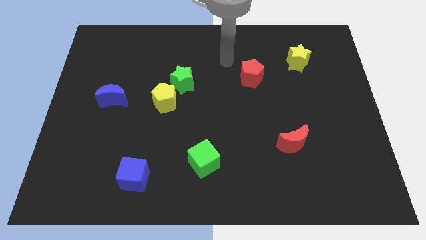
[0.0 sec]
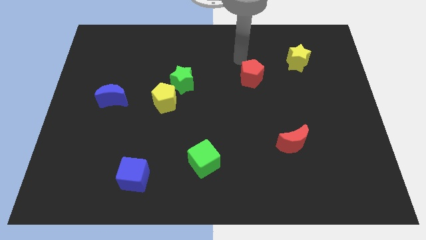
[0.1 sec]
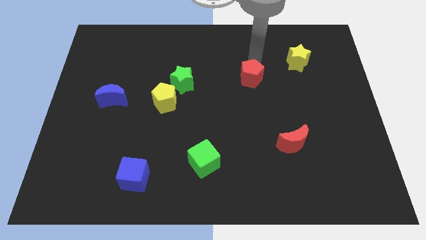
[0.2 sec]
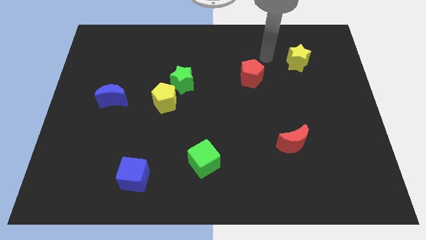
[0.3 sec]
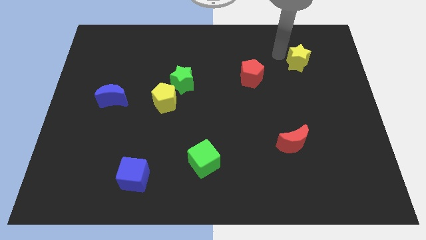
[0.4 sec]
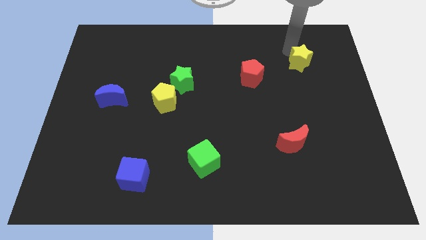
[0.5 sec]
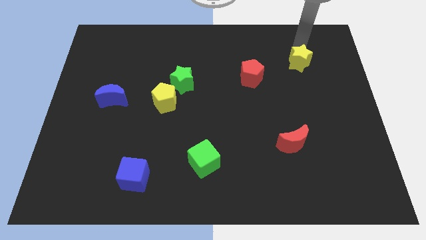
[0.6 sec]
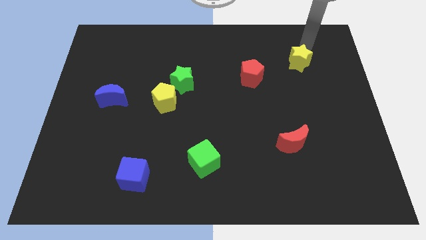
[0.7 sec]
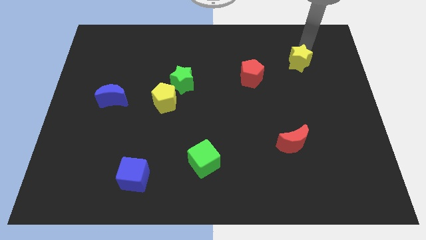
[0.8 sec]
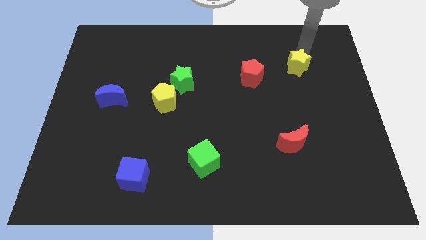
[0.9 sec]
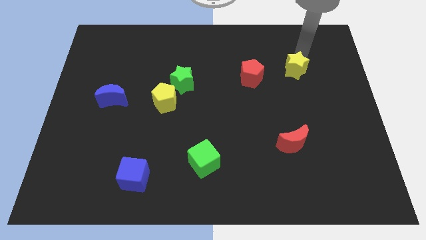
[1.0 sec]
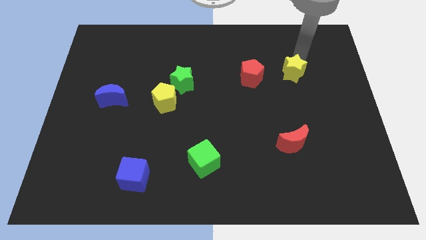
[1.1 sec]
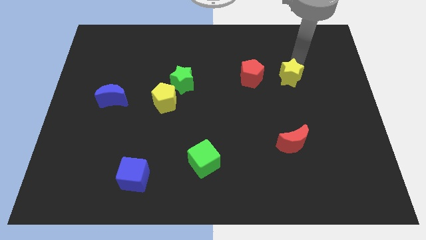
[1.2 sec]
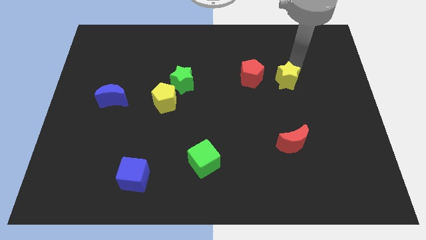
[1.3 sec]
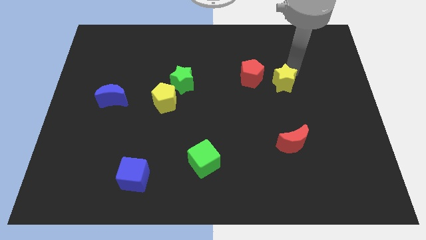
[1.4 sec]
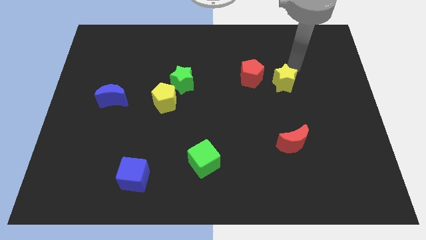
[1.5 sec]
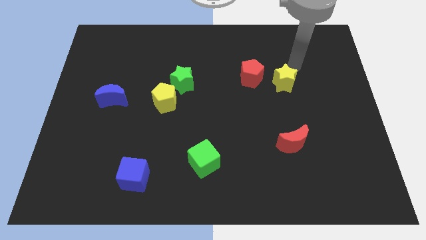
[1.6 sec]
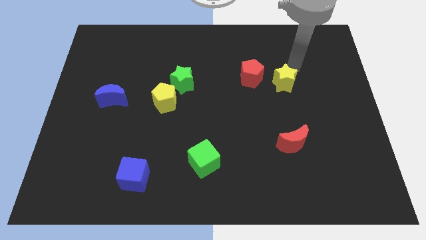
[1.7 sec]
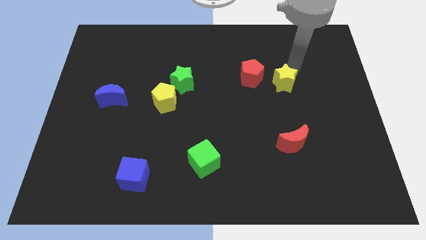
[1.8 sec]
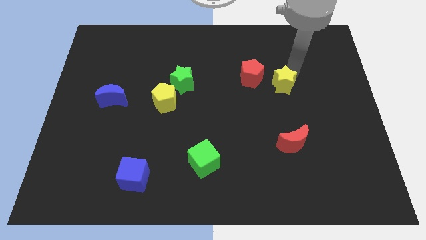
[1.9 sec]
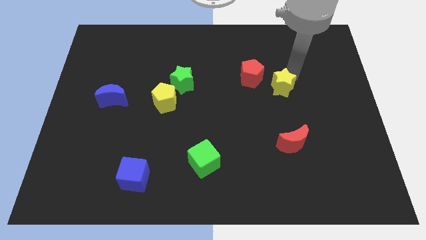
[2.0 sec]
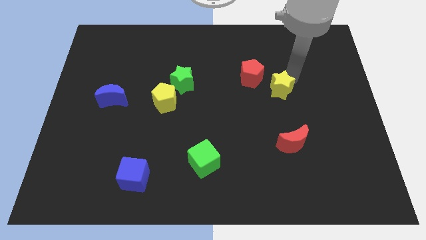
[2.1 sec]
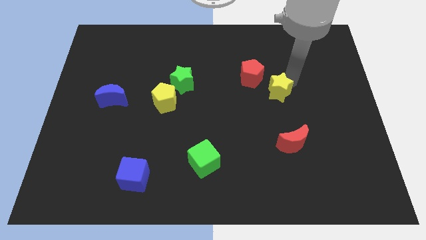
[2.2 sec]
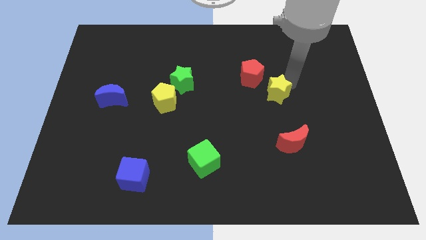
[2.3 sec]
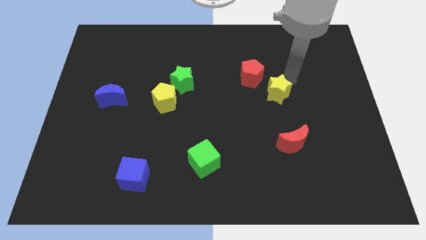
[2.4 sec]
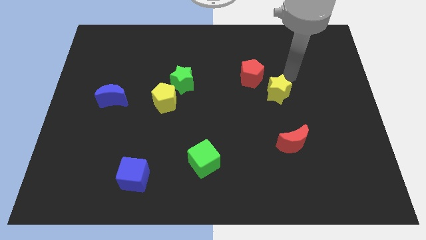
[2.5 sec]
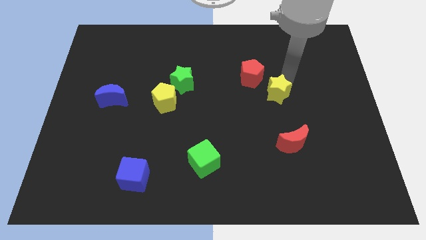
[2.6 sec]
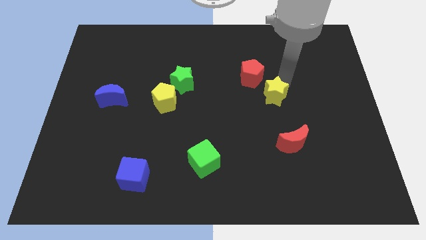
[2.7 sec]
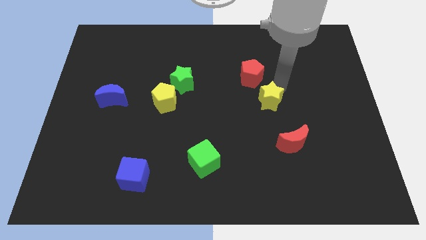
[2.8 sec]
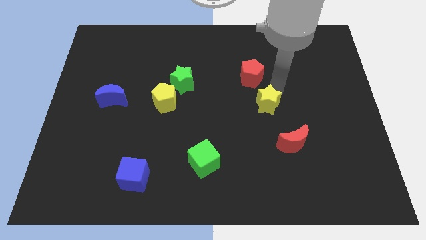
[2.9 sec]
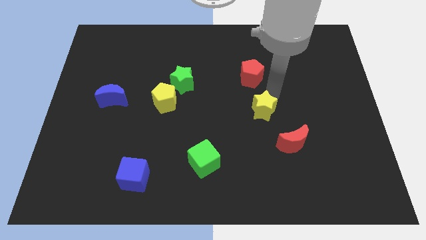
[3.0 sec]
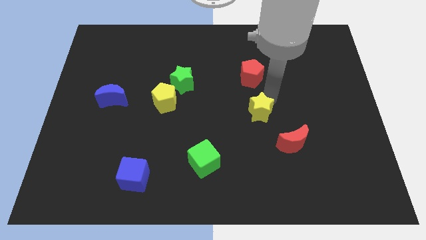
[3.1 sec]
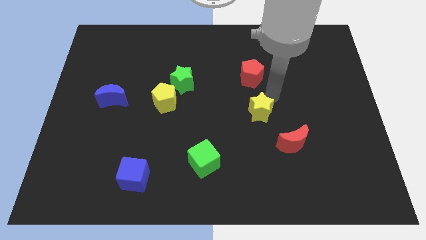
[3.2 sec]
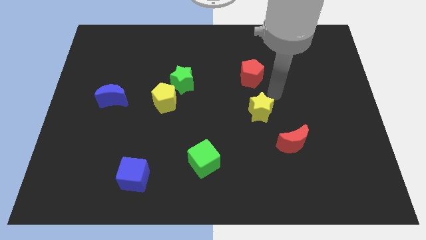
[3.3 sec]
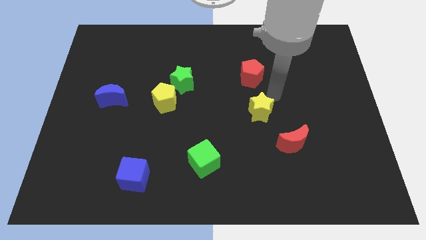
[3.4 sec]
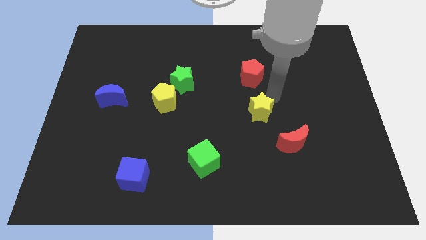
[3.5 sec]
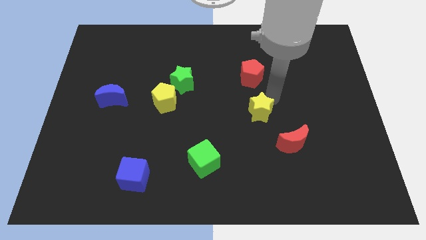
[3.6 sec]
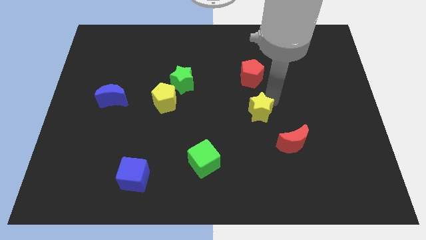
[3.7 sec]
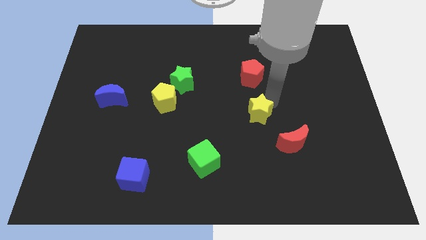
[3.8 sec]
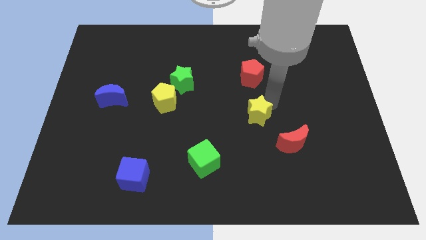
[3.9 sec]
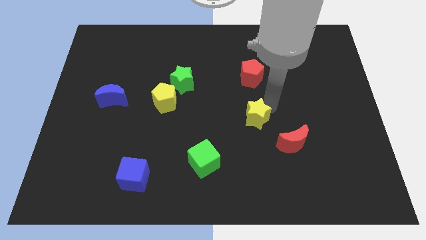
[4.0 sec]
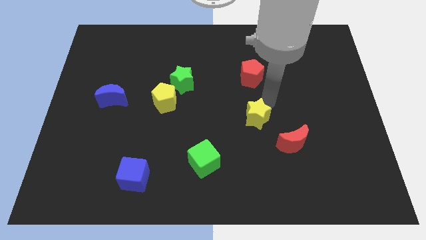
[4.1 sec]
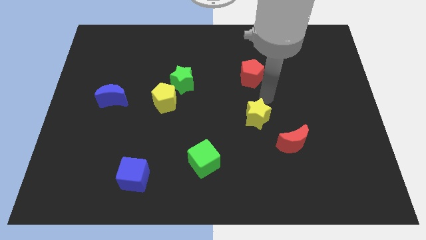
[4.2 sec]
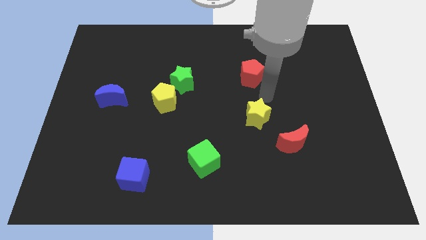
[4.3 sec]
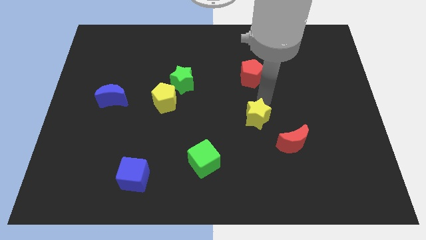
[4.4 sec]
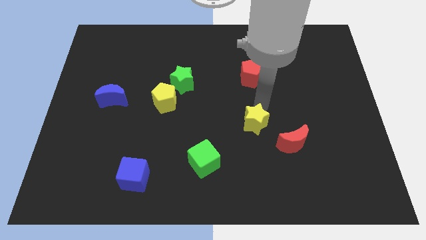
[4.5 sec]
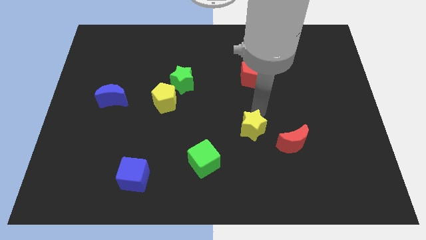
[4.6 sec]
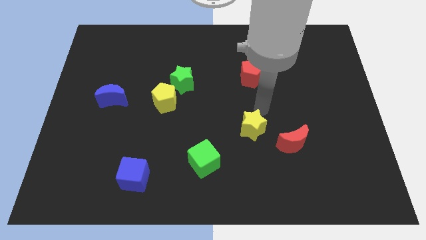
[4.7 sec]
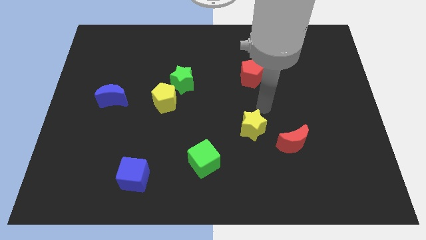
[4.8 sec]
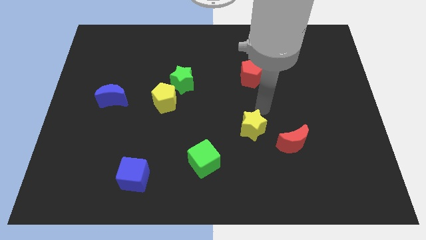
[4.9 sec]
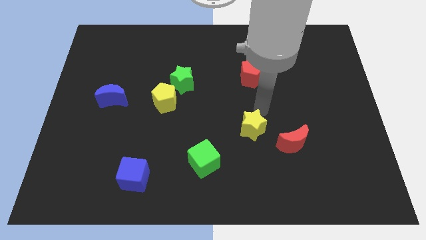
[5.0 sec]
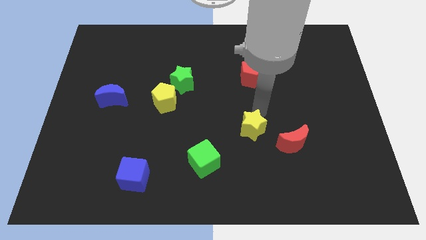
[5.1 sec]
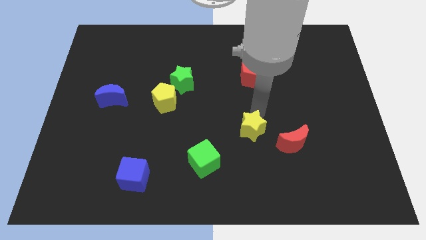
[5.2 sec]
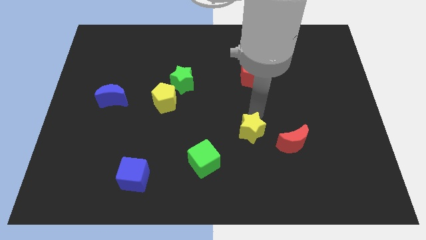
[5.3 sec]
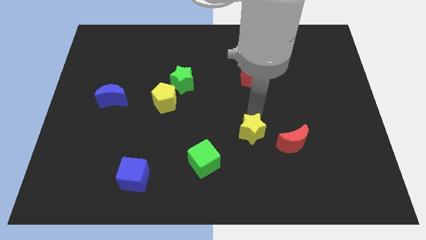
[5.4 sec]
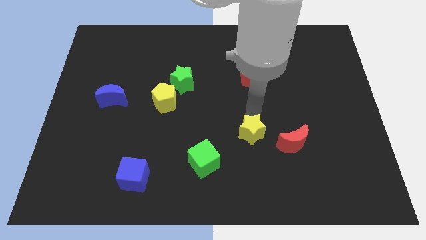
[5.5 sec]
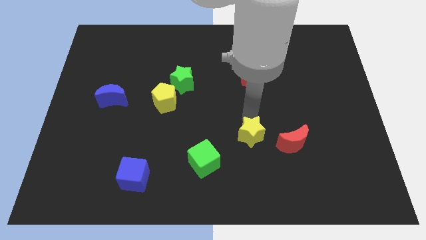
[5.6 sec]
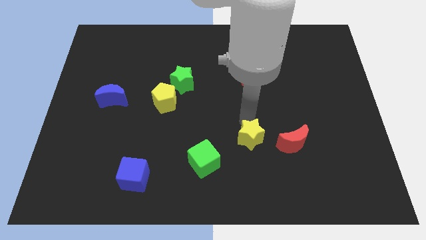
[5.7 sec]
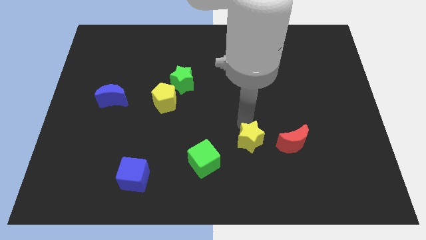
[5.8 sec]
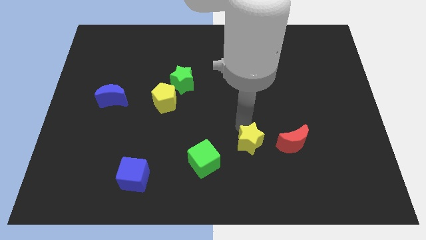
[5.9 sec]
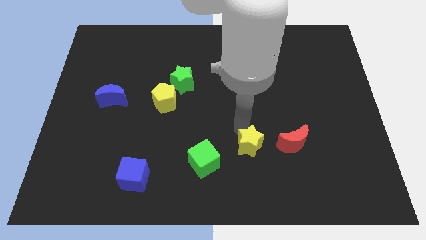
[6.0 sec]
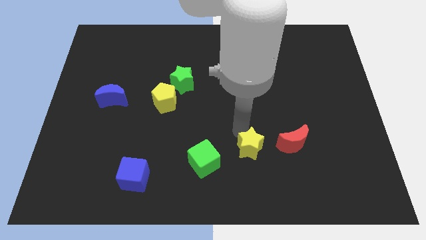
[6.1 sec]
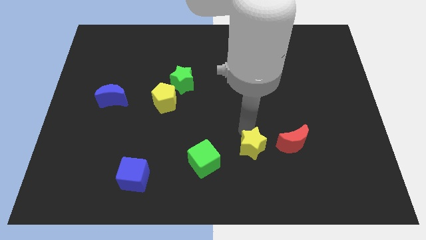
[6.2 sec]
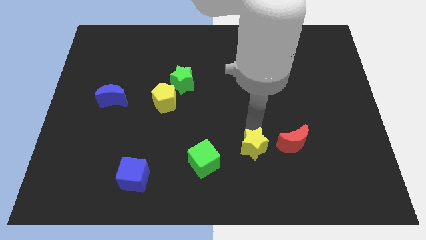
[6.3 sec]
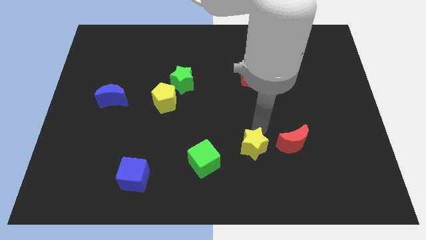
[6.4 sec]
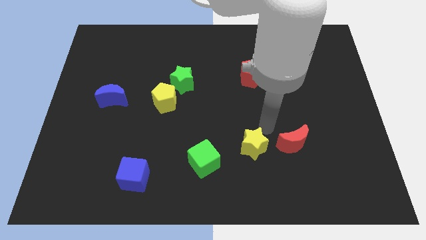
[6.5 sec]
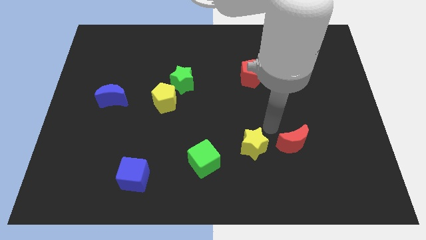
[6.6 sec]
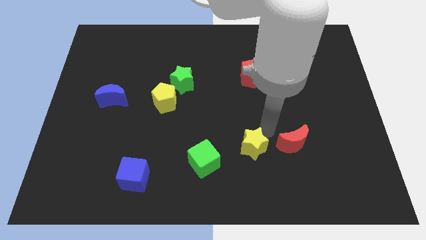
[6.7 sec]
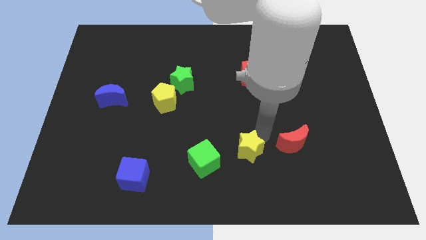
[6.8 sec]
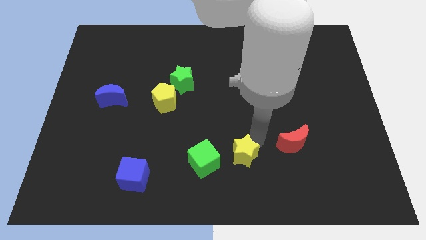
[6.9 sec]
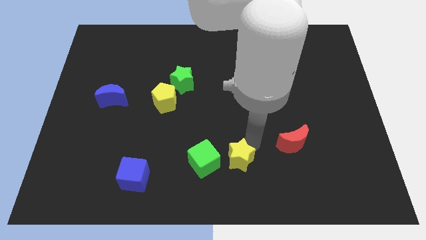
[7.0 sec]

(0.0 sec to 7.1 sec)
move the yellow star to the bottom
